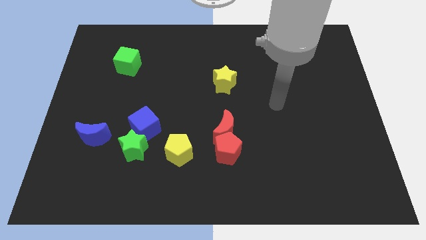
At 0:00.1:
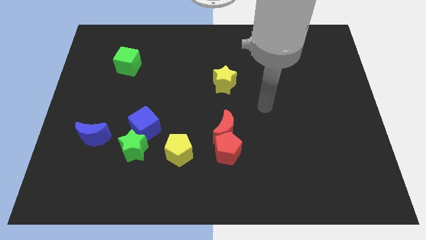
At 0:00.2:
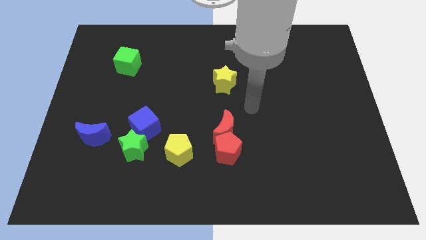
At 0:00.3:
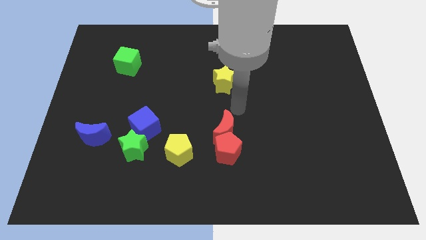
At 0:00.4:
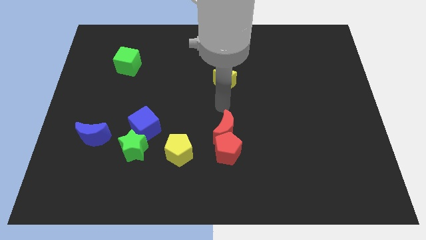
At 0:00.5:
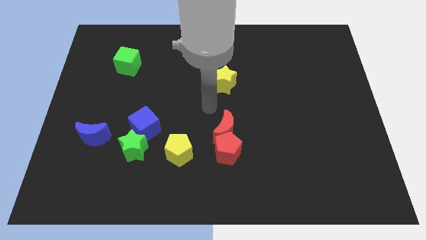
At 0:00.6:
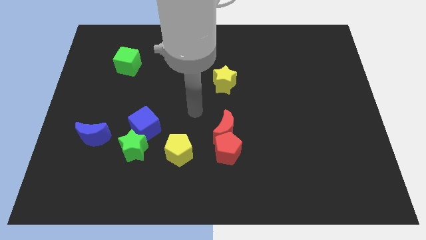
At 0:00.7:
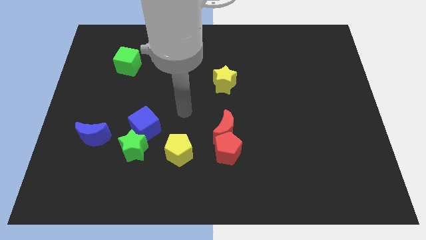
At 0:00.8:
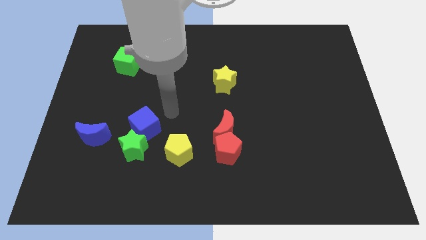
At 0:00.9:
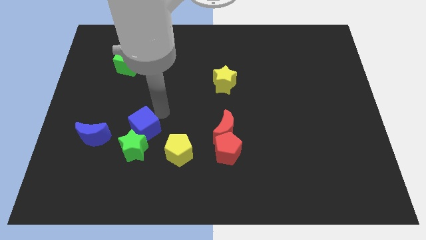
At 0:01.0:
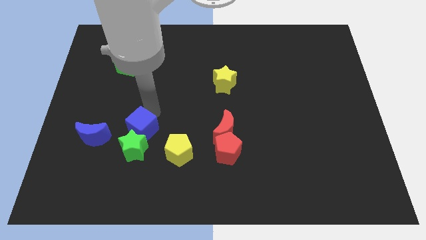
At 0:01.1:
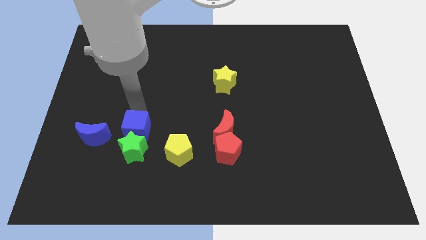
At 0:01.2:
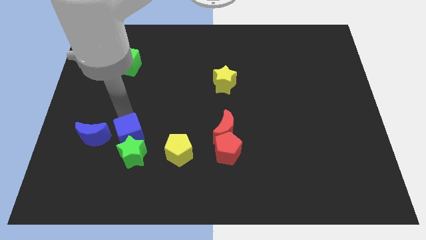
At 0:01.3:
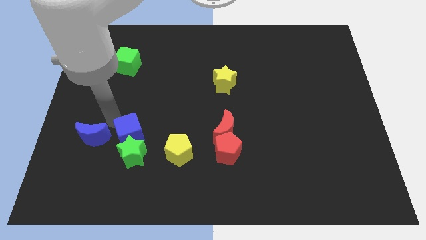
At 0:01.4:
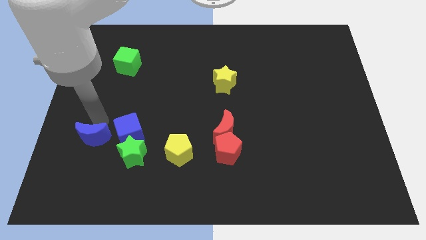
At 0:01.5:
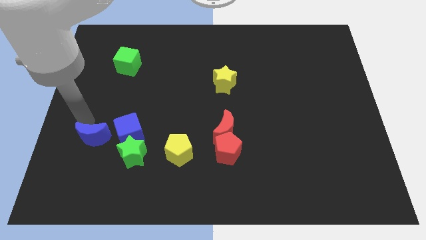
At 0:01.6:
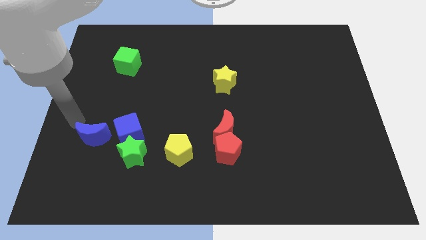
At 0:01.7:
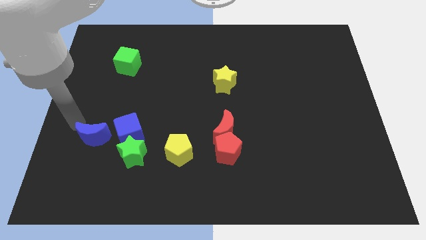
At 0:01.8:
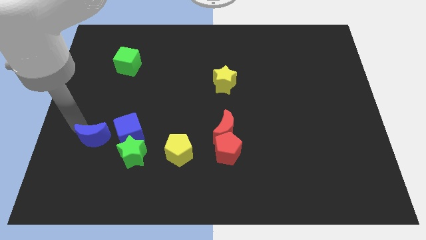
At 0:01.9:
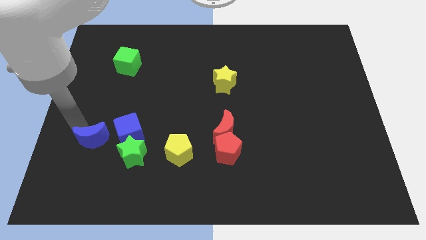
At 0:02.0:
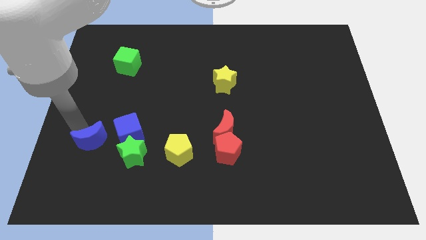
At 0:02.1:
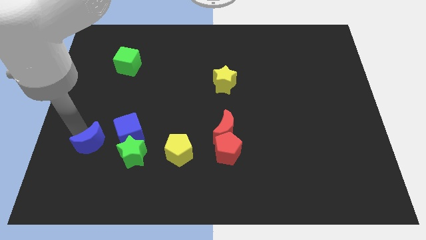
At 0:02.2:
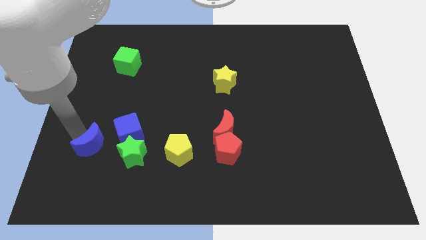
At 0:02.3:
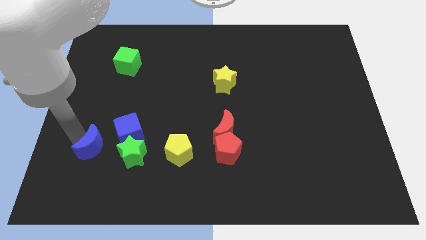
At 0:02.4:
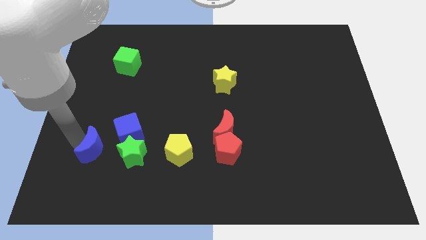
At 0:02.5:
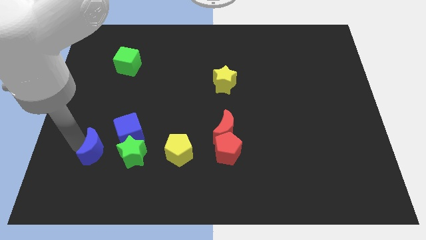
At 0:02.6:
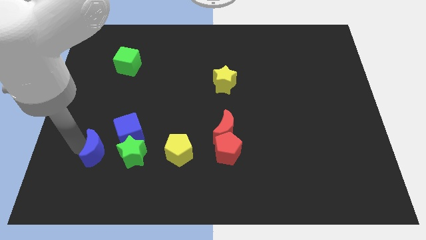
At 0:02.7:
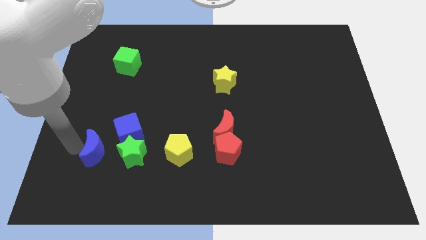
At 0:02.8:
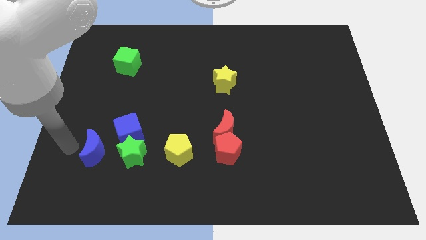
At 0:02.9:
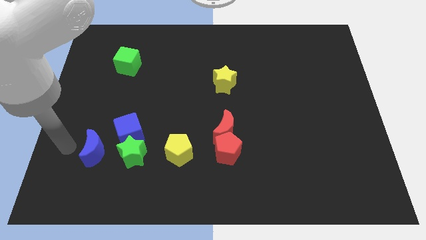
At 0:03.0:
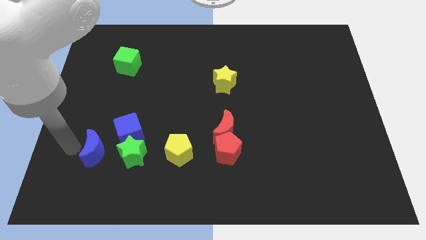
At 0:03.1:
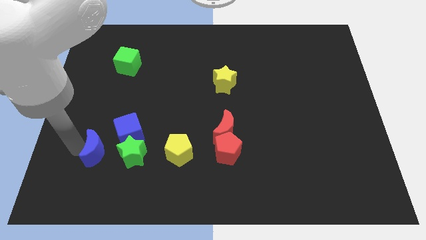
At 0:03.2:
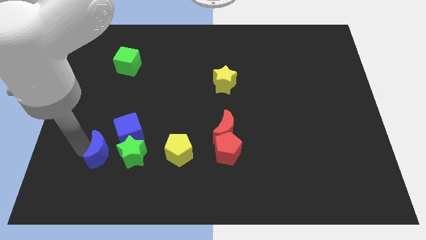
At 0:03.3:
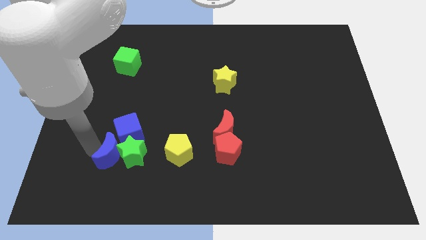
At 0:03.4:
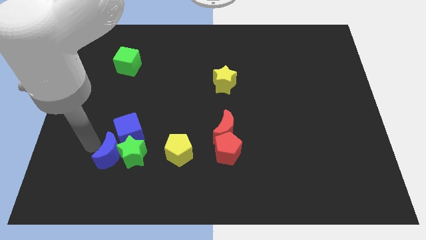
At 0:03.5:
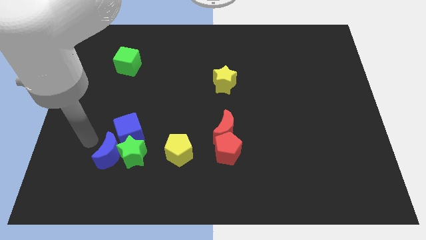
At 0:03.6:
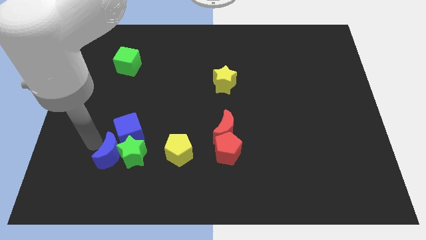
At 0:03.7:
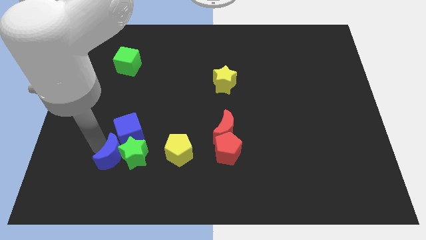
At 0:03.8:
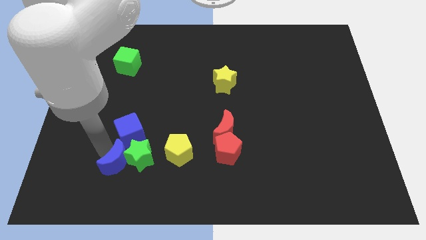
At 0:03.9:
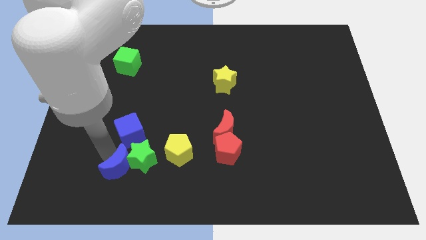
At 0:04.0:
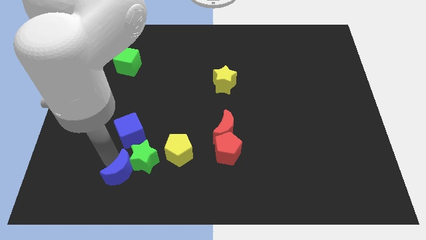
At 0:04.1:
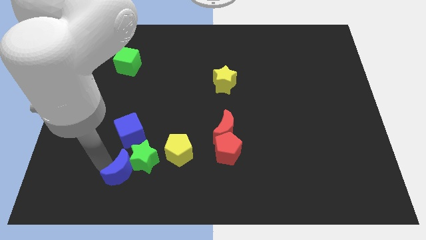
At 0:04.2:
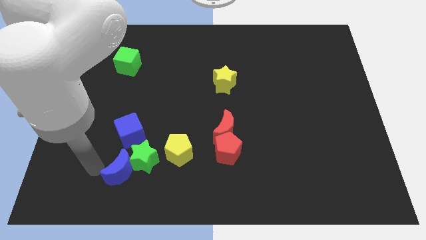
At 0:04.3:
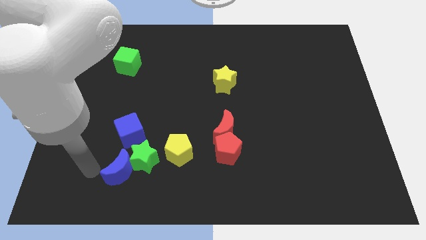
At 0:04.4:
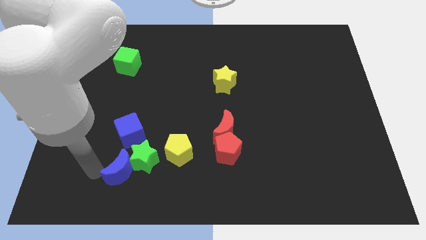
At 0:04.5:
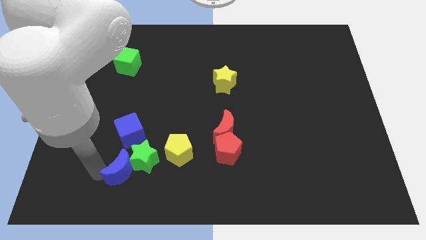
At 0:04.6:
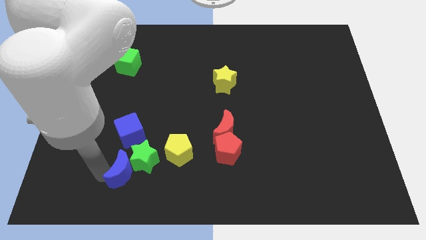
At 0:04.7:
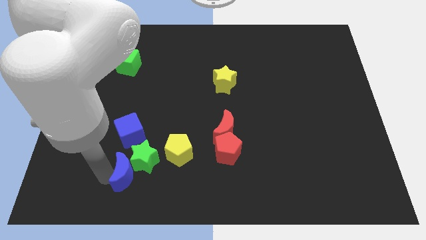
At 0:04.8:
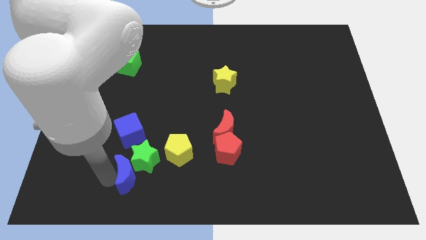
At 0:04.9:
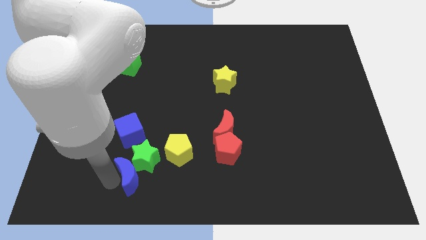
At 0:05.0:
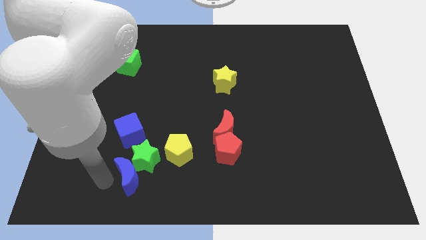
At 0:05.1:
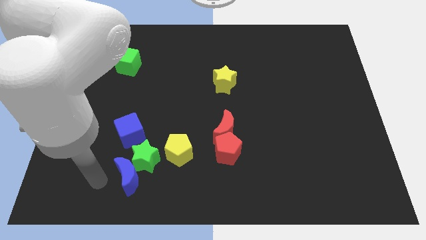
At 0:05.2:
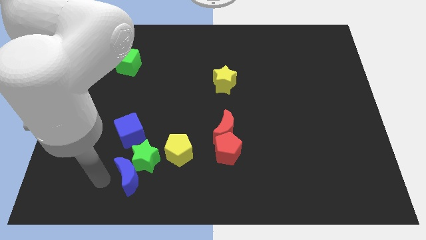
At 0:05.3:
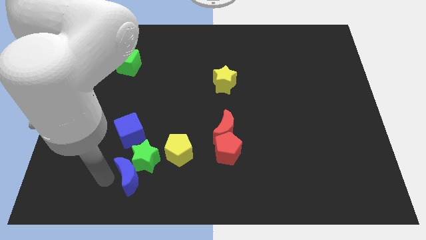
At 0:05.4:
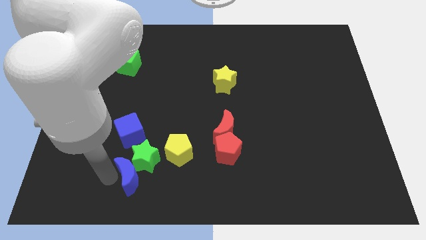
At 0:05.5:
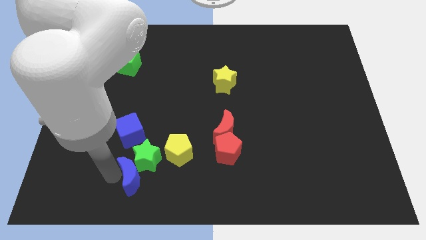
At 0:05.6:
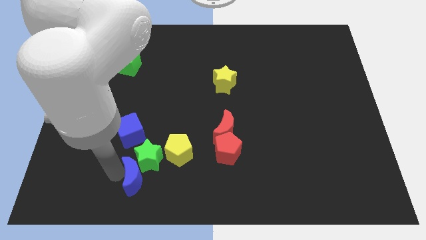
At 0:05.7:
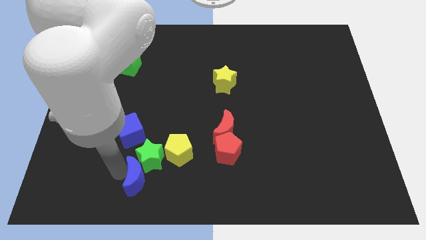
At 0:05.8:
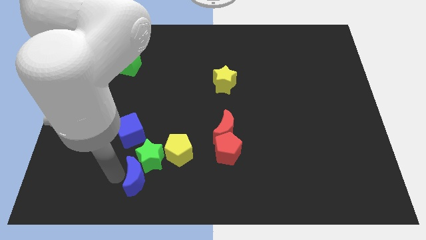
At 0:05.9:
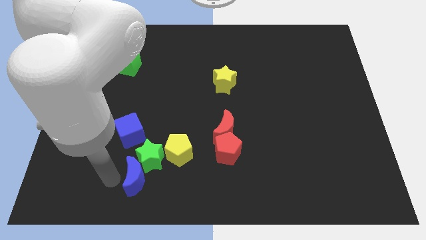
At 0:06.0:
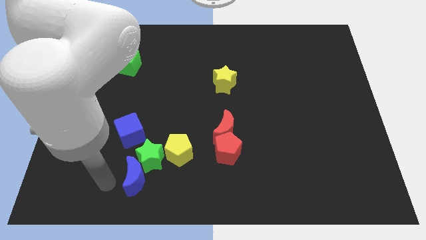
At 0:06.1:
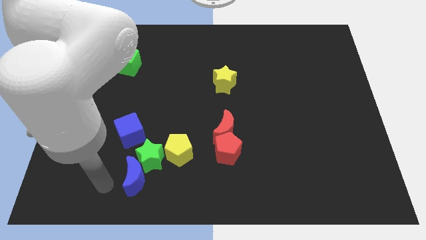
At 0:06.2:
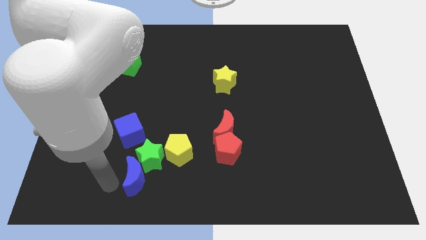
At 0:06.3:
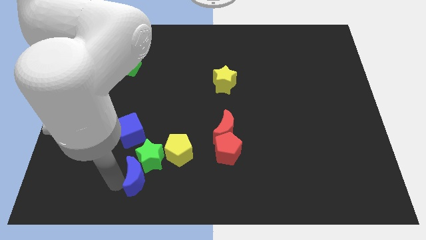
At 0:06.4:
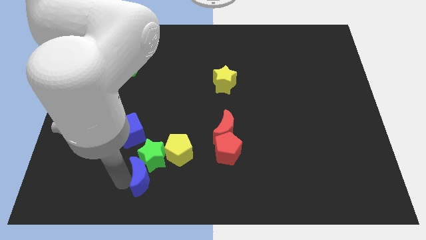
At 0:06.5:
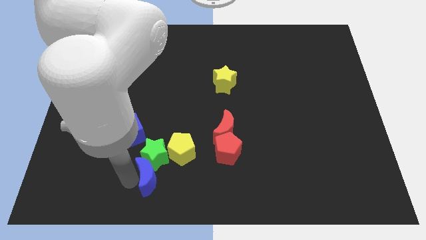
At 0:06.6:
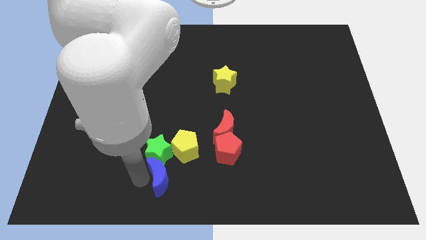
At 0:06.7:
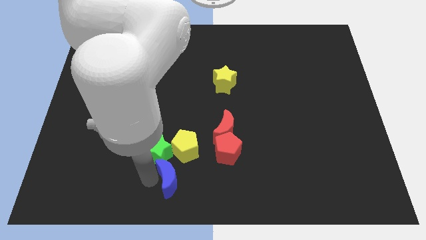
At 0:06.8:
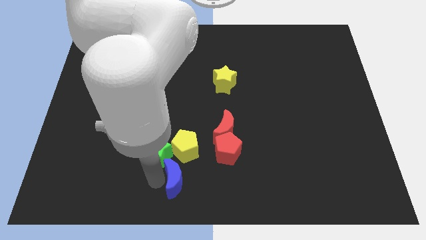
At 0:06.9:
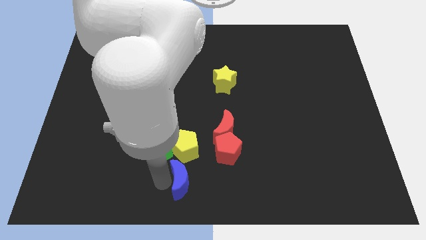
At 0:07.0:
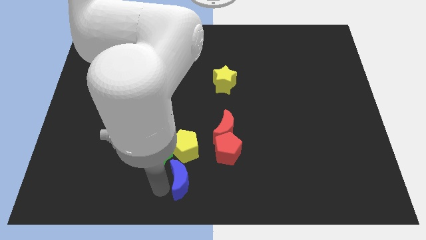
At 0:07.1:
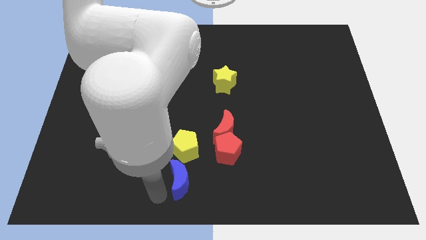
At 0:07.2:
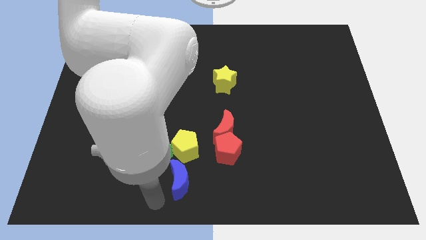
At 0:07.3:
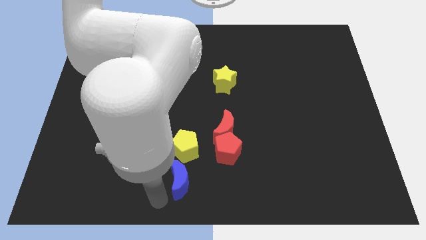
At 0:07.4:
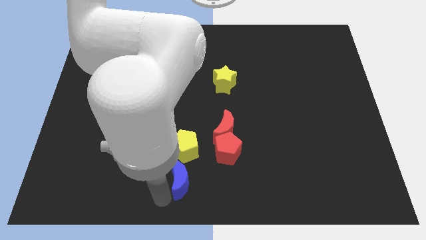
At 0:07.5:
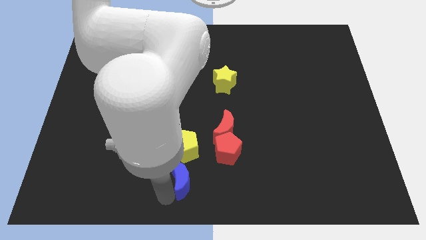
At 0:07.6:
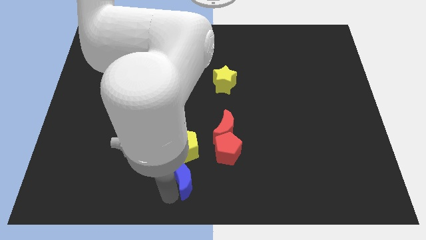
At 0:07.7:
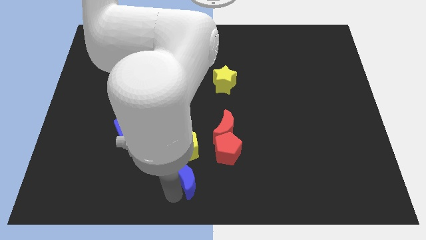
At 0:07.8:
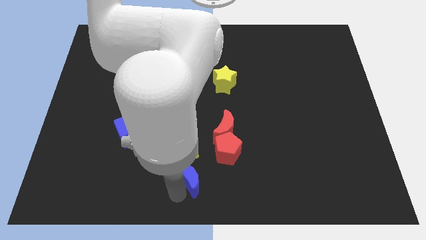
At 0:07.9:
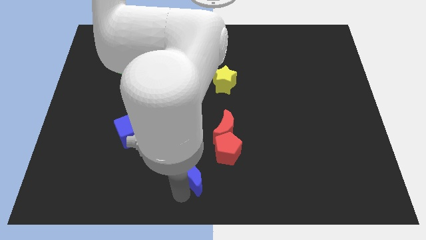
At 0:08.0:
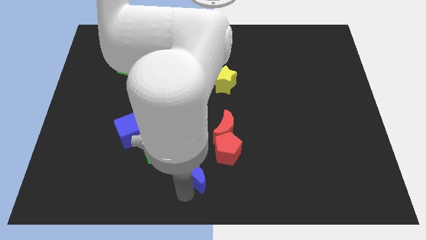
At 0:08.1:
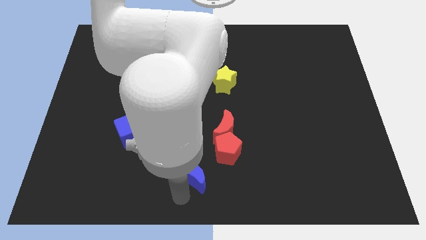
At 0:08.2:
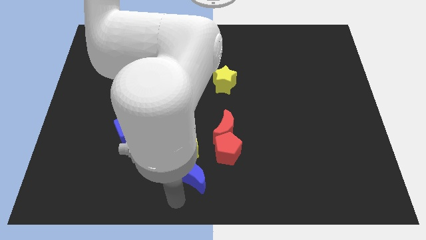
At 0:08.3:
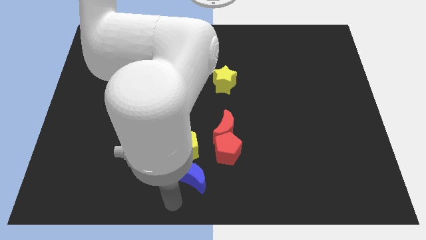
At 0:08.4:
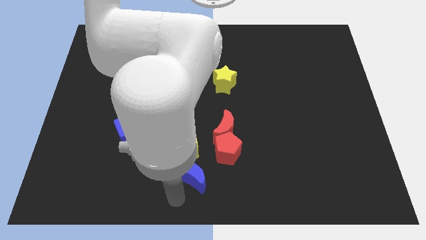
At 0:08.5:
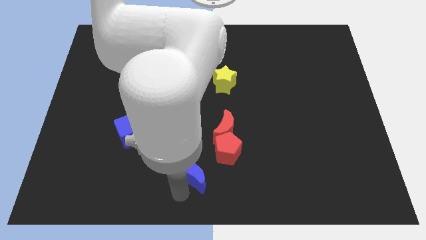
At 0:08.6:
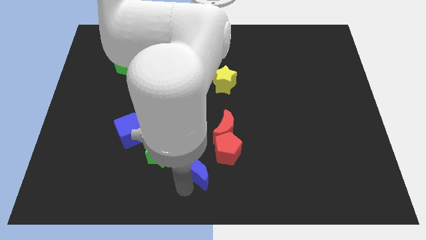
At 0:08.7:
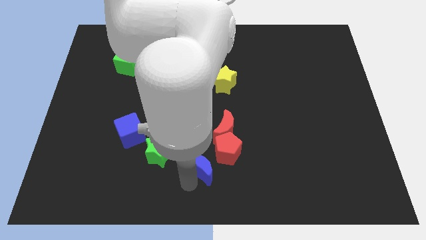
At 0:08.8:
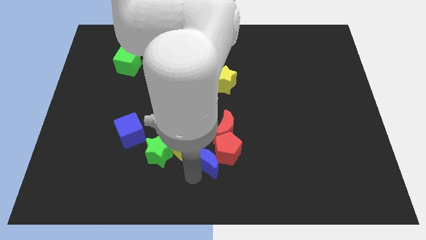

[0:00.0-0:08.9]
move the blue moon close to the red pentagon
